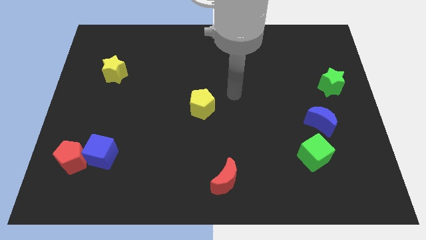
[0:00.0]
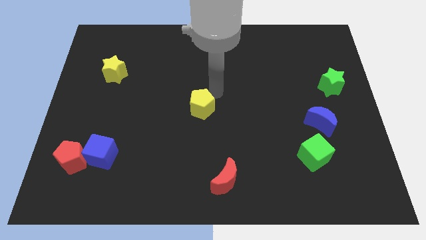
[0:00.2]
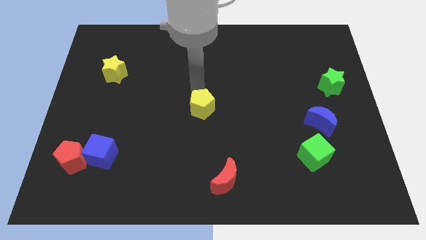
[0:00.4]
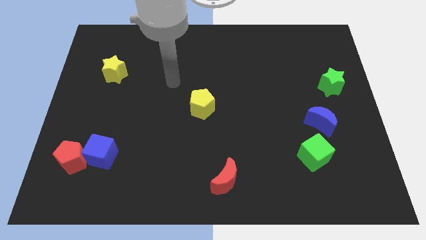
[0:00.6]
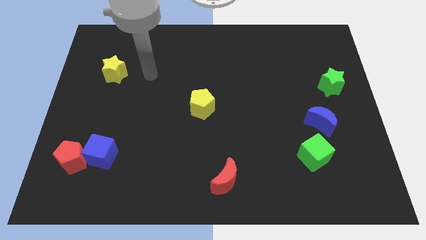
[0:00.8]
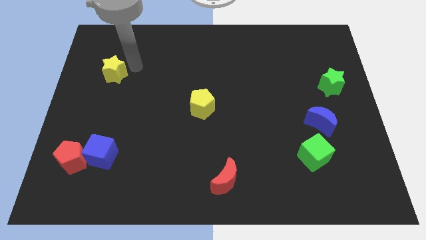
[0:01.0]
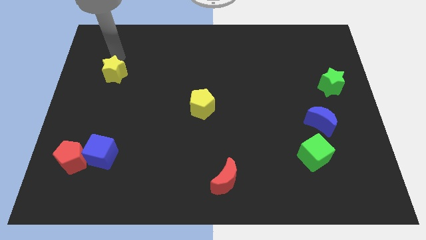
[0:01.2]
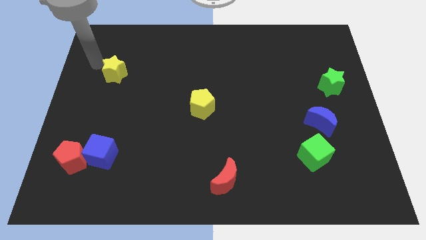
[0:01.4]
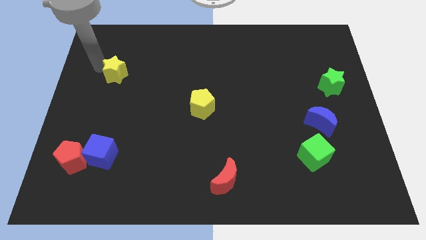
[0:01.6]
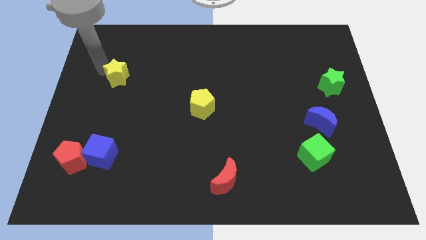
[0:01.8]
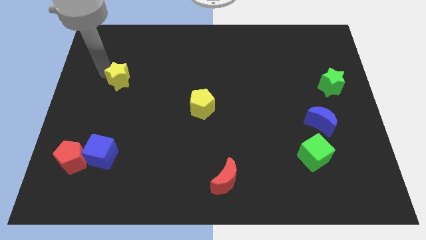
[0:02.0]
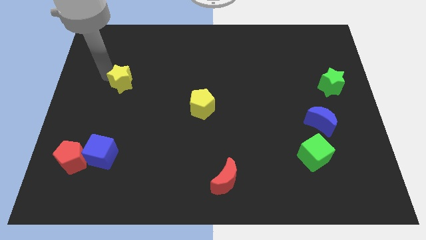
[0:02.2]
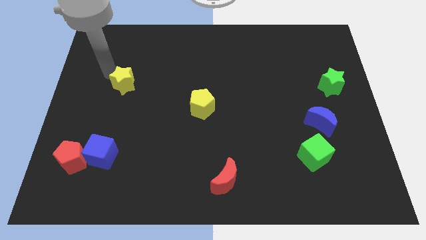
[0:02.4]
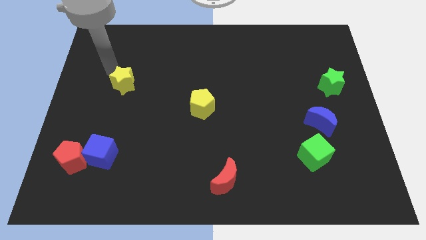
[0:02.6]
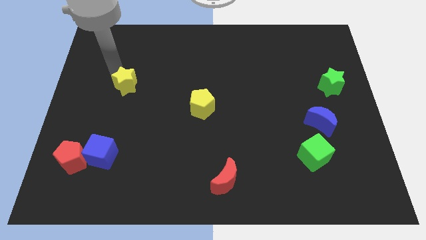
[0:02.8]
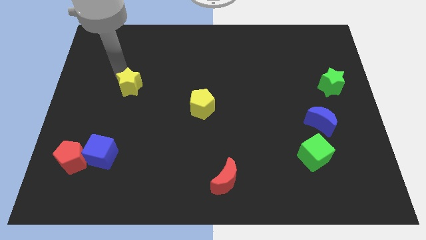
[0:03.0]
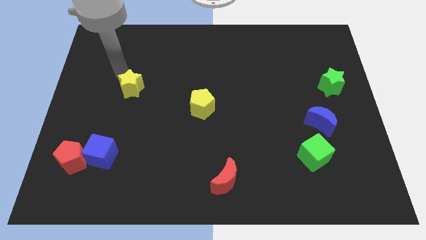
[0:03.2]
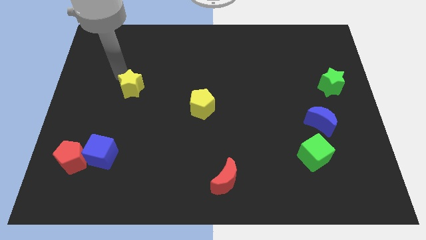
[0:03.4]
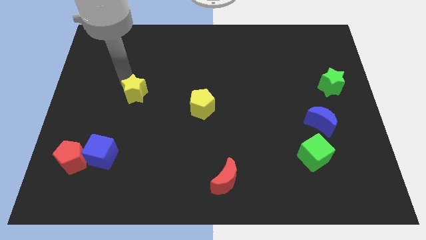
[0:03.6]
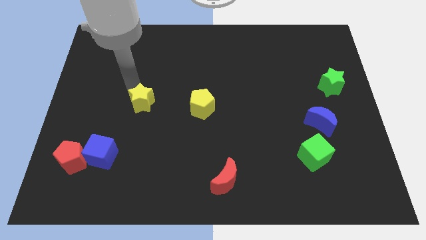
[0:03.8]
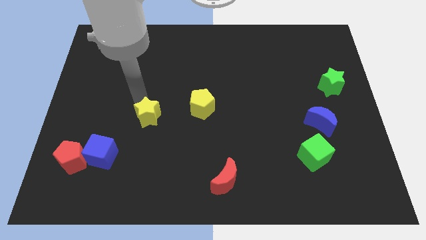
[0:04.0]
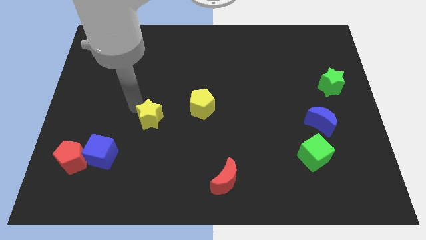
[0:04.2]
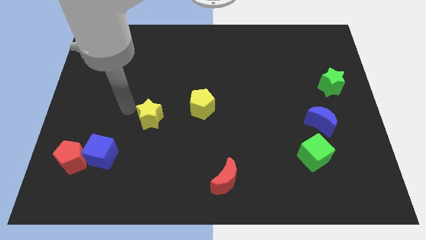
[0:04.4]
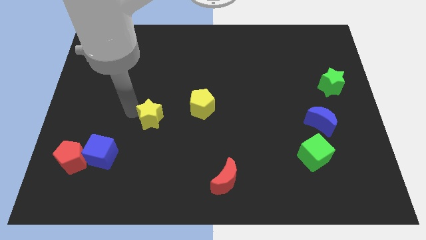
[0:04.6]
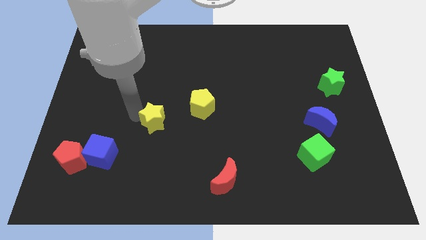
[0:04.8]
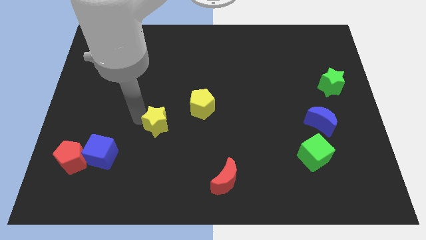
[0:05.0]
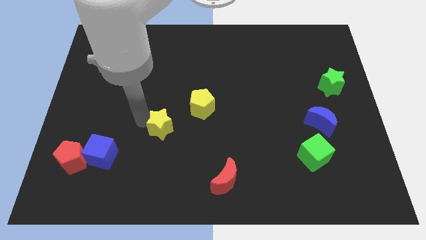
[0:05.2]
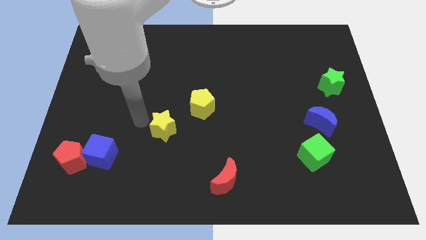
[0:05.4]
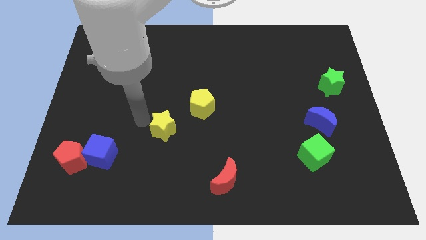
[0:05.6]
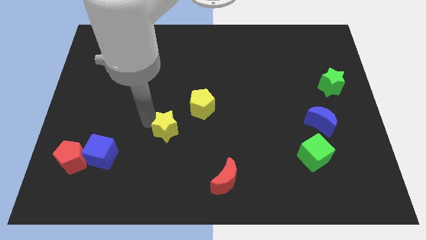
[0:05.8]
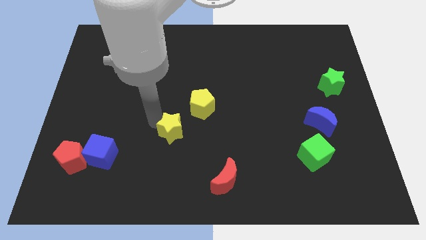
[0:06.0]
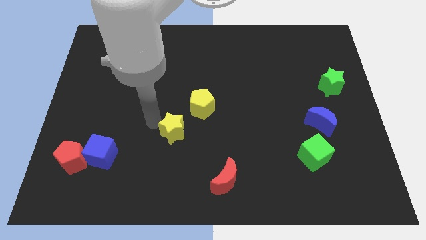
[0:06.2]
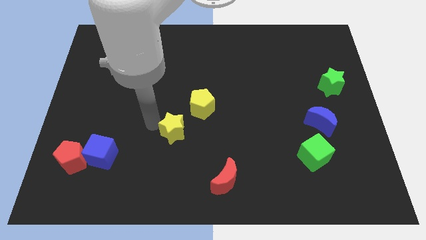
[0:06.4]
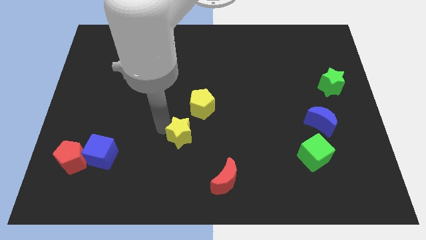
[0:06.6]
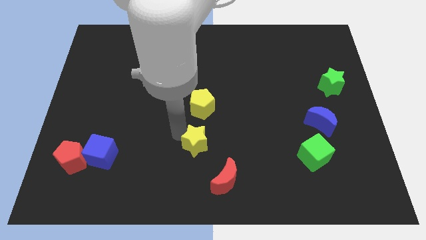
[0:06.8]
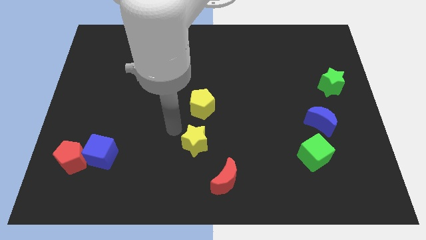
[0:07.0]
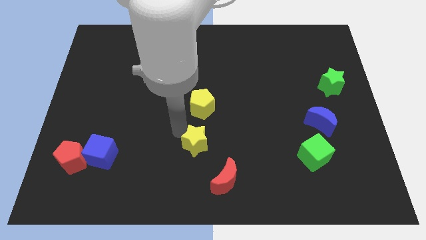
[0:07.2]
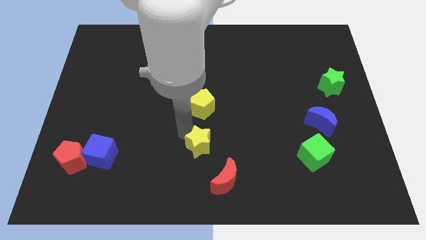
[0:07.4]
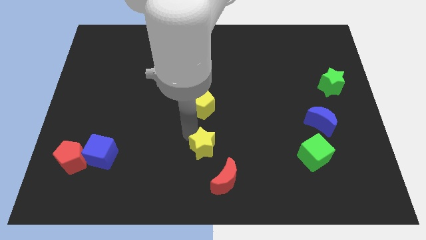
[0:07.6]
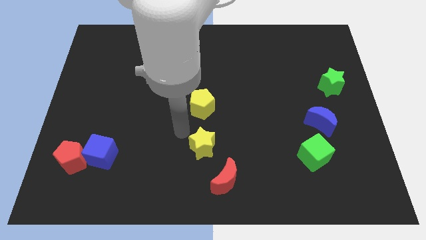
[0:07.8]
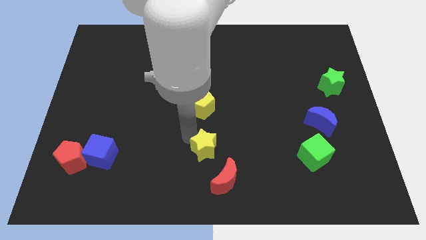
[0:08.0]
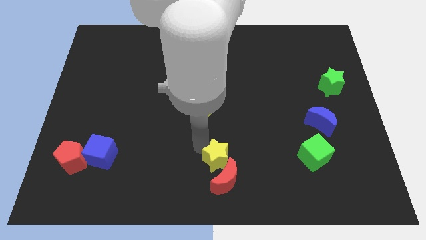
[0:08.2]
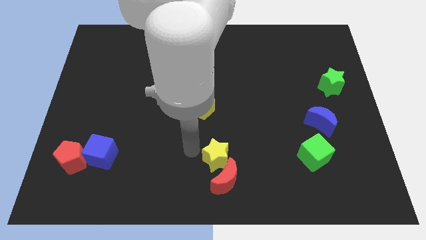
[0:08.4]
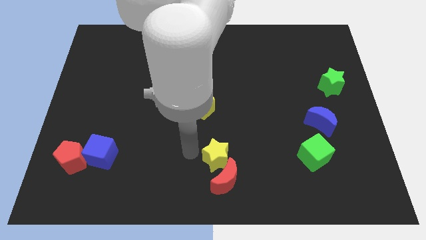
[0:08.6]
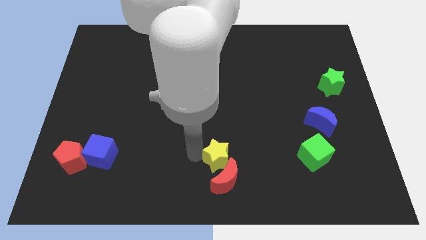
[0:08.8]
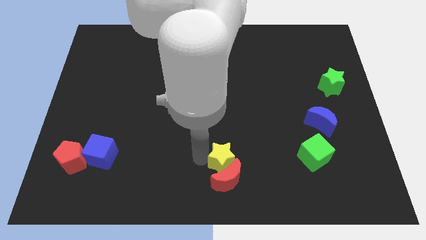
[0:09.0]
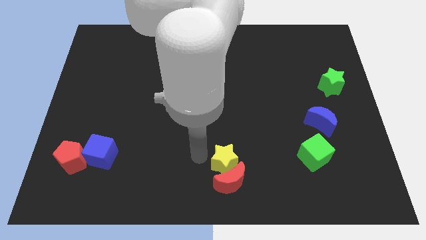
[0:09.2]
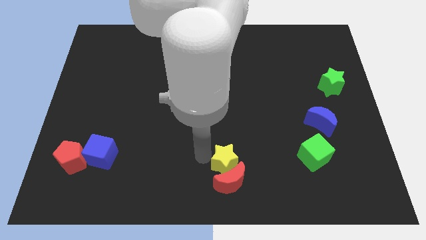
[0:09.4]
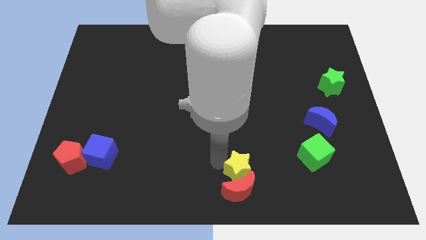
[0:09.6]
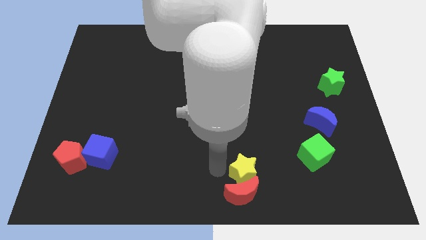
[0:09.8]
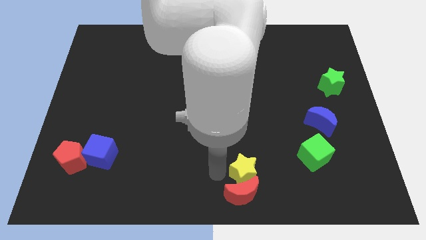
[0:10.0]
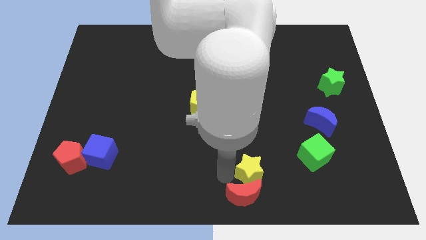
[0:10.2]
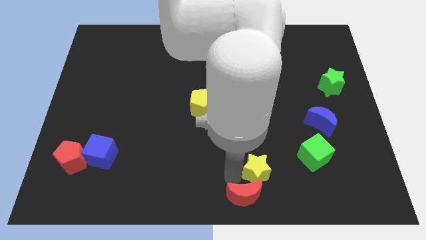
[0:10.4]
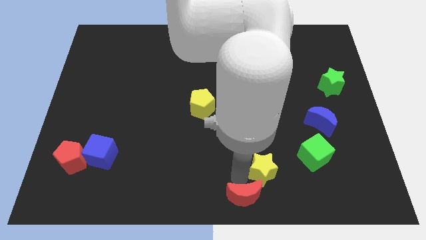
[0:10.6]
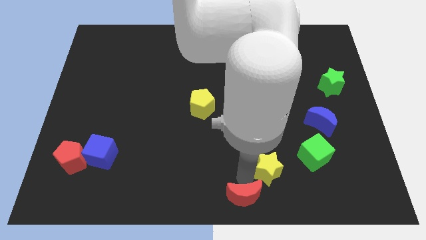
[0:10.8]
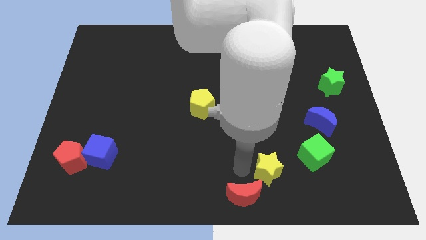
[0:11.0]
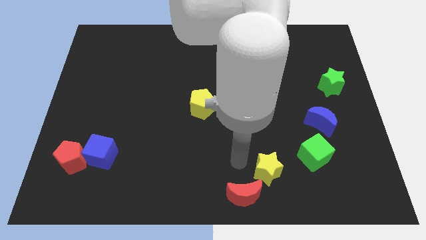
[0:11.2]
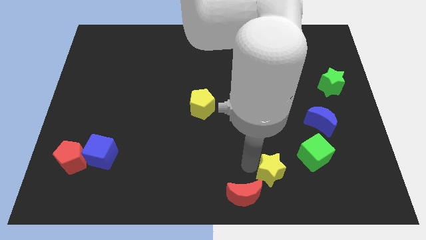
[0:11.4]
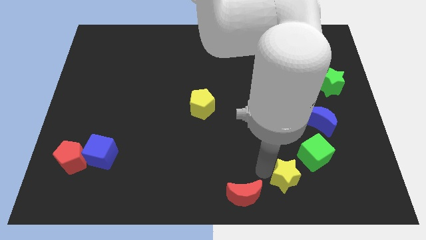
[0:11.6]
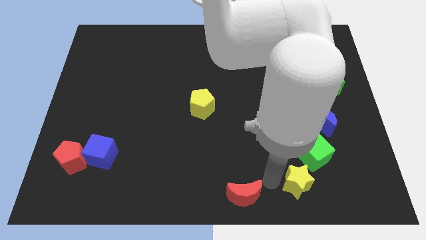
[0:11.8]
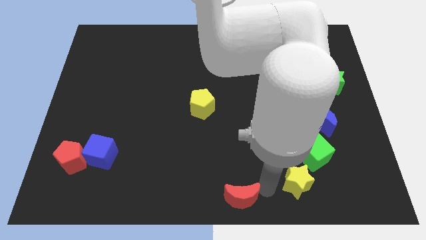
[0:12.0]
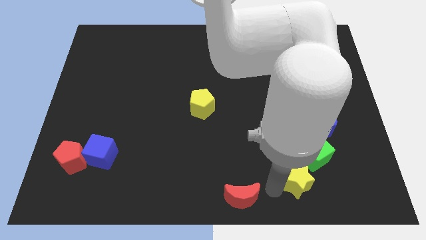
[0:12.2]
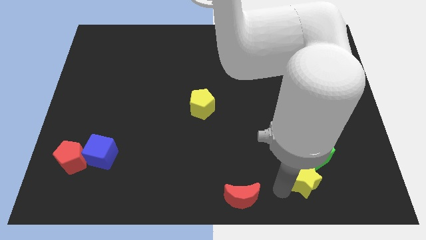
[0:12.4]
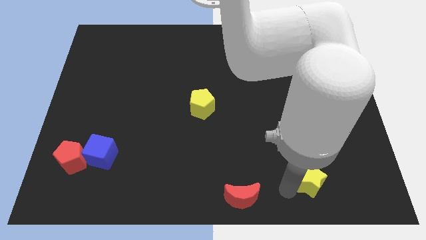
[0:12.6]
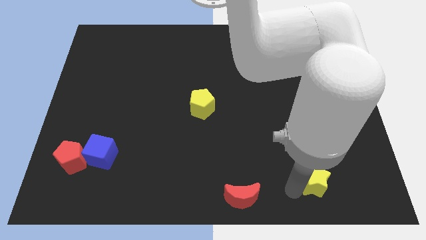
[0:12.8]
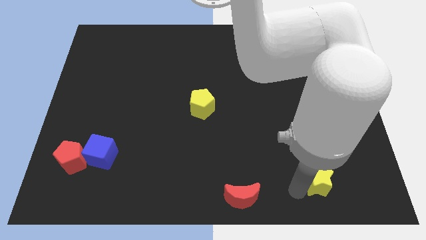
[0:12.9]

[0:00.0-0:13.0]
push the yellow star to the bottom right side of the green cube

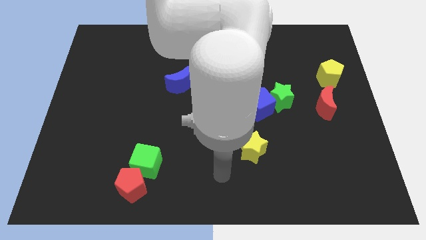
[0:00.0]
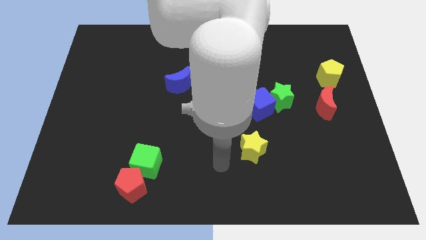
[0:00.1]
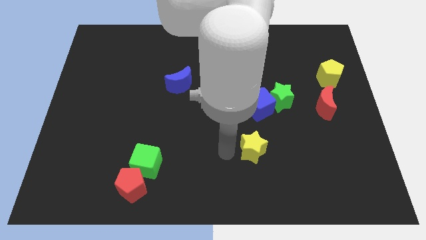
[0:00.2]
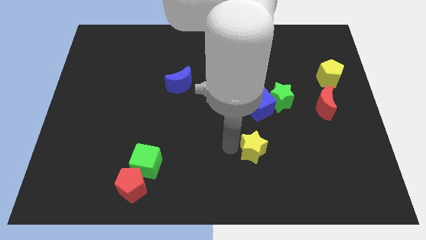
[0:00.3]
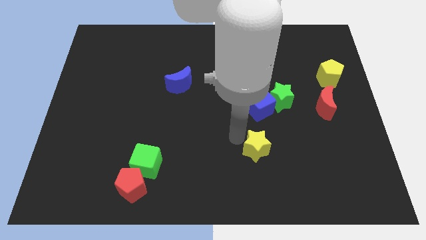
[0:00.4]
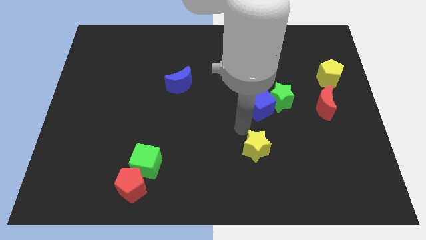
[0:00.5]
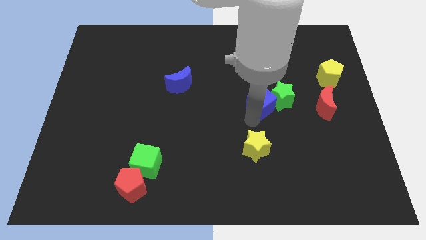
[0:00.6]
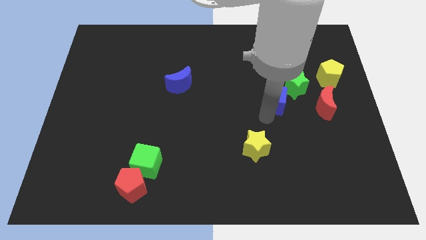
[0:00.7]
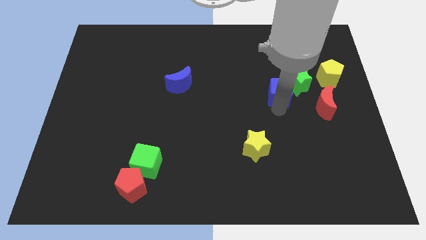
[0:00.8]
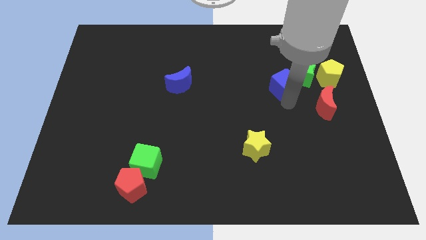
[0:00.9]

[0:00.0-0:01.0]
slide the green star to the top left side of the yellow pentagon
